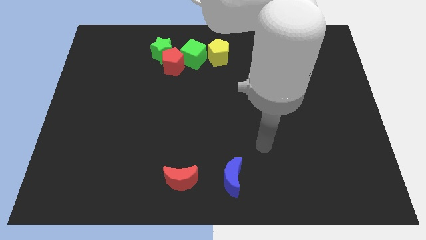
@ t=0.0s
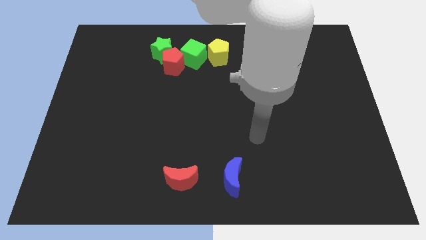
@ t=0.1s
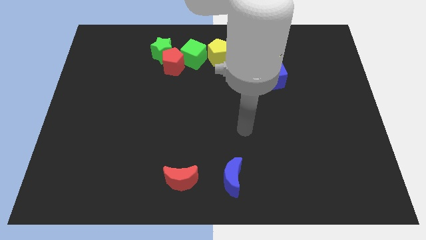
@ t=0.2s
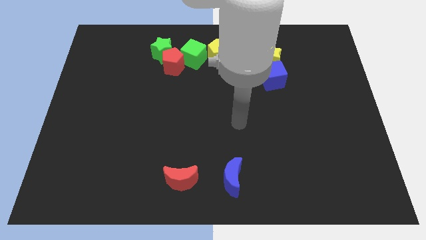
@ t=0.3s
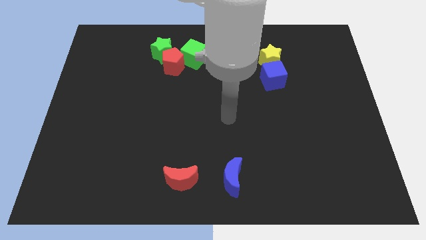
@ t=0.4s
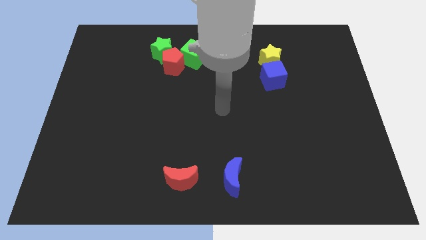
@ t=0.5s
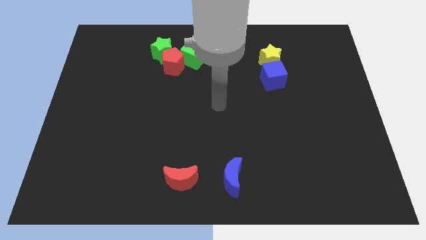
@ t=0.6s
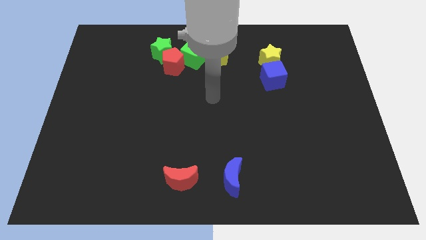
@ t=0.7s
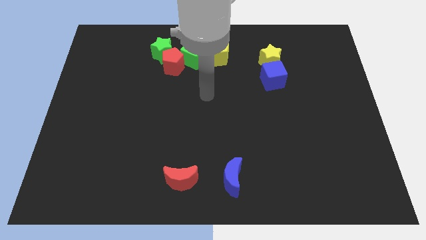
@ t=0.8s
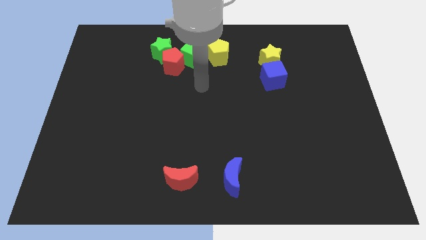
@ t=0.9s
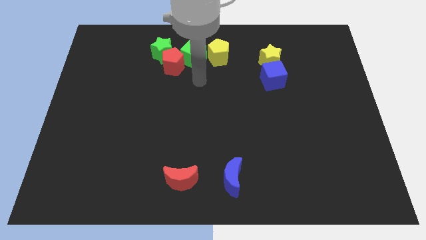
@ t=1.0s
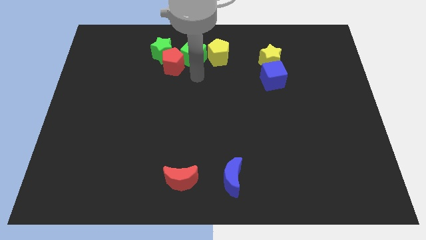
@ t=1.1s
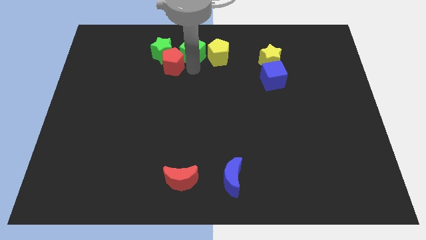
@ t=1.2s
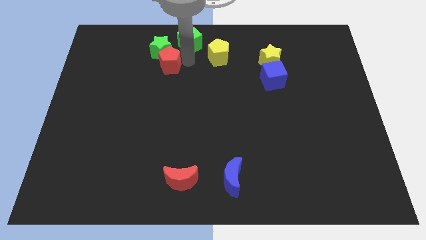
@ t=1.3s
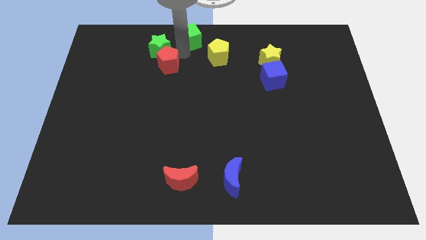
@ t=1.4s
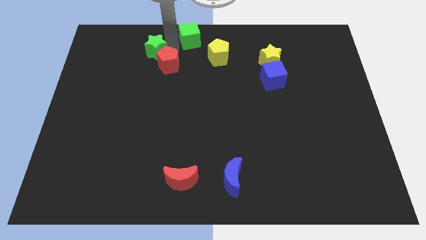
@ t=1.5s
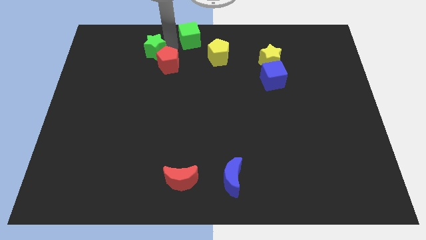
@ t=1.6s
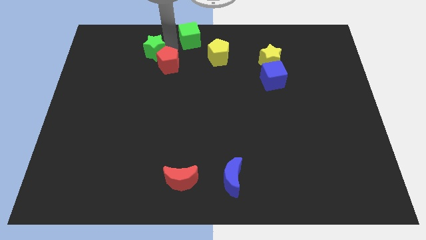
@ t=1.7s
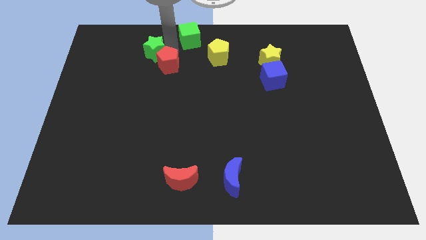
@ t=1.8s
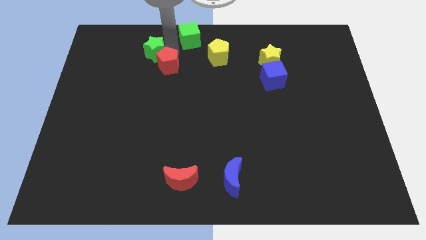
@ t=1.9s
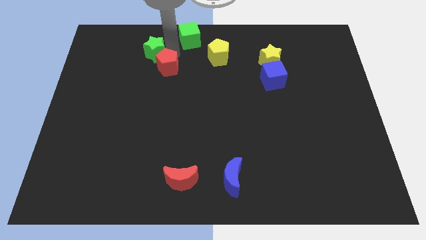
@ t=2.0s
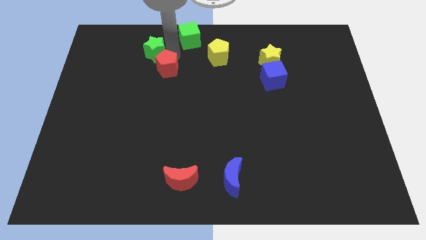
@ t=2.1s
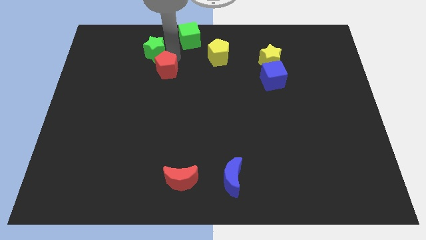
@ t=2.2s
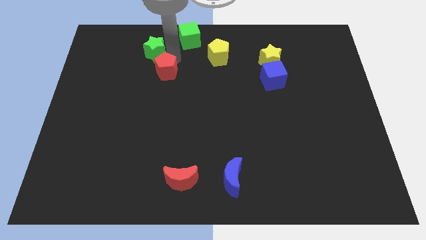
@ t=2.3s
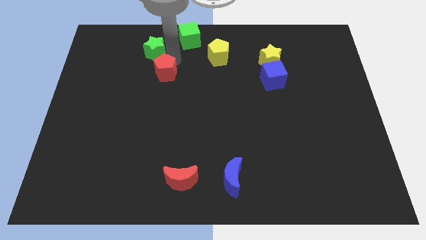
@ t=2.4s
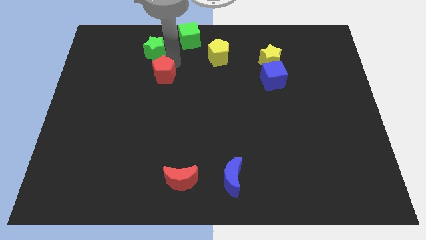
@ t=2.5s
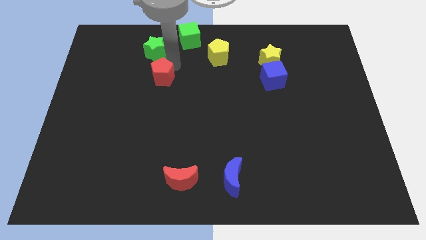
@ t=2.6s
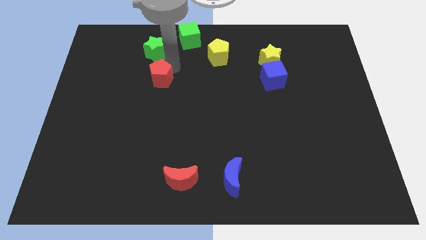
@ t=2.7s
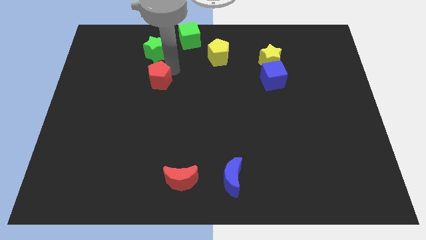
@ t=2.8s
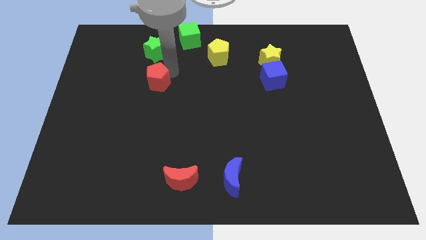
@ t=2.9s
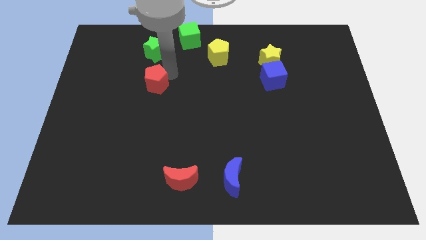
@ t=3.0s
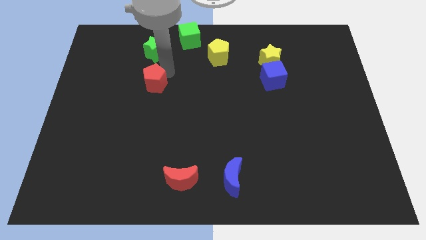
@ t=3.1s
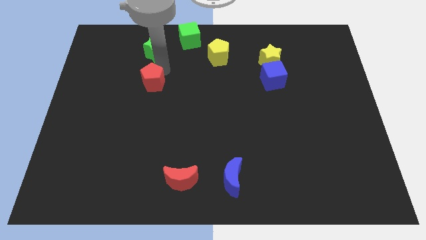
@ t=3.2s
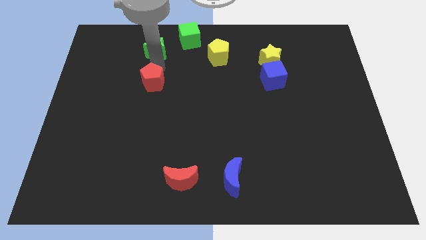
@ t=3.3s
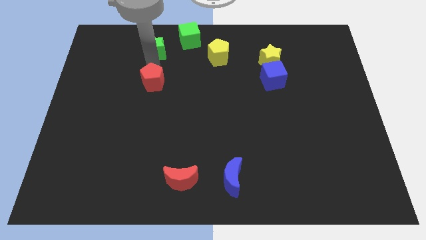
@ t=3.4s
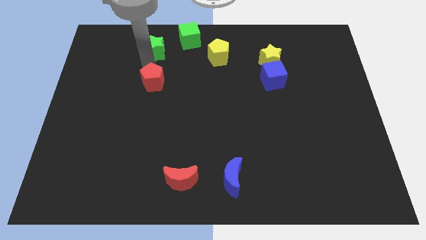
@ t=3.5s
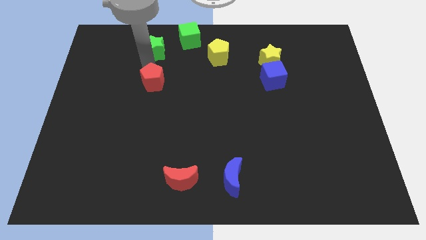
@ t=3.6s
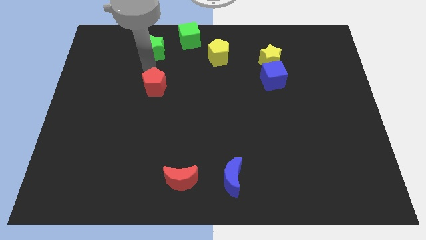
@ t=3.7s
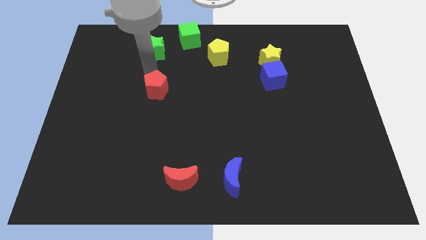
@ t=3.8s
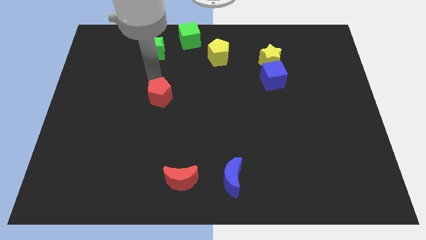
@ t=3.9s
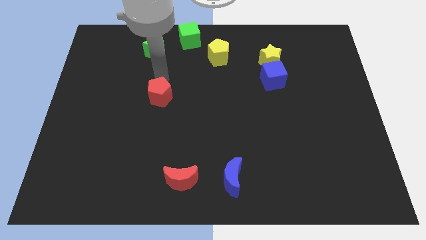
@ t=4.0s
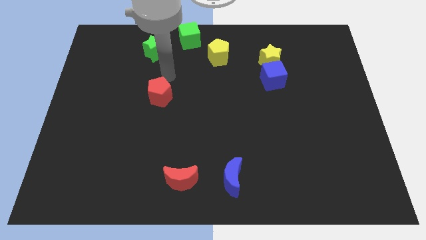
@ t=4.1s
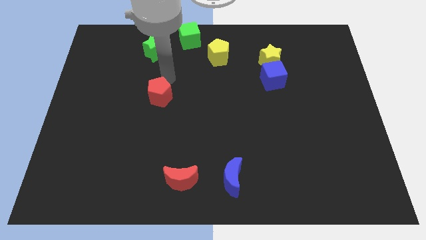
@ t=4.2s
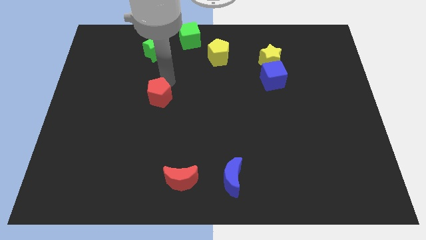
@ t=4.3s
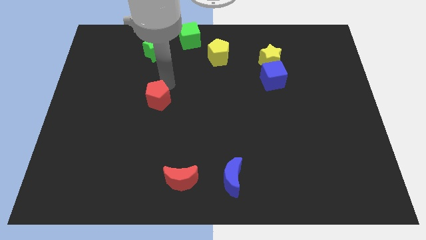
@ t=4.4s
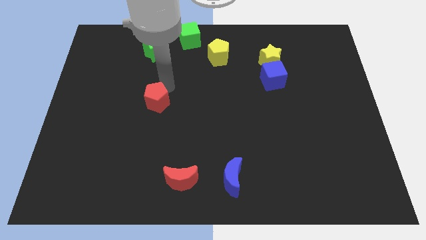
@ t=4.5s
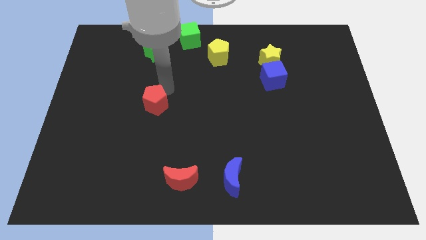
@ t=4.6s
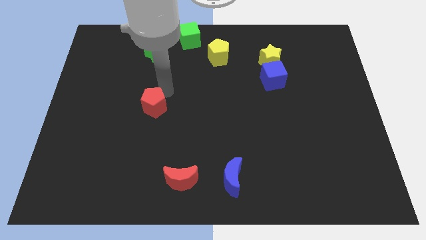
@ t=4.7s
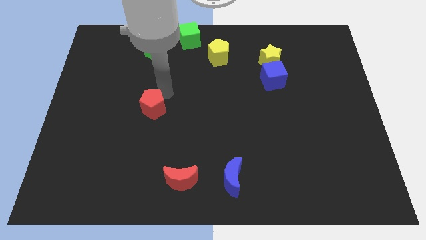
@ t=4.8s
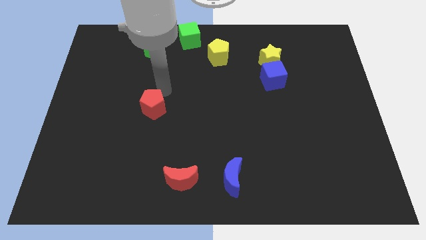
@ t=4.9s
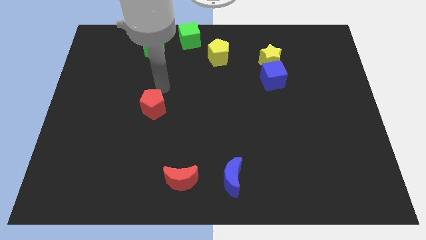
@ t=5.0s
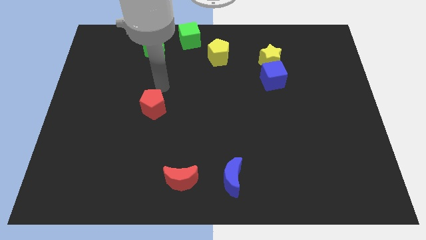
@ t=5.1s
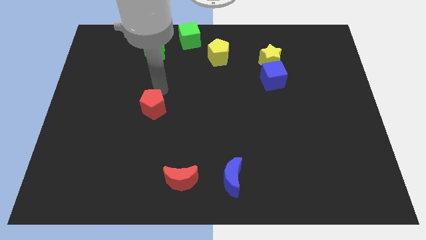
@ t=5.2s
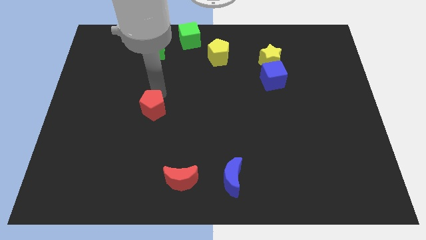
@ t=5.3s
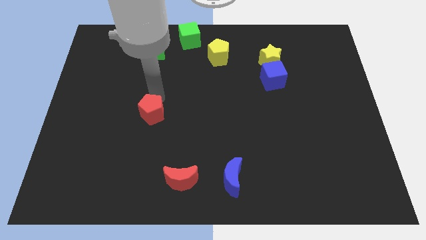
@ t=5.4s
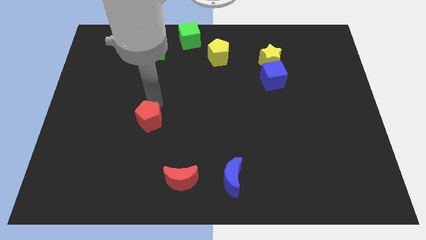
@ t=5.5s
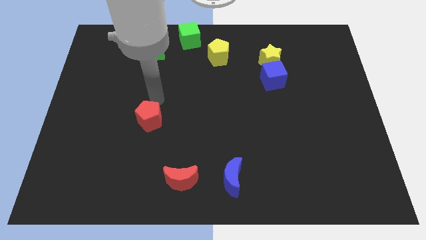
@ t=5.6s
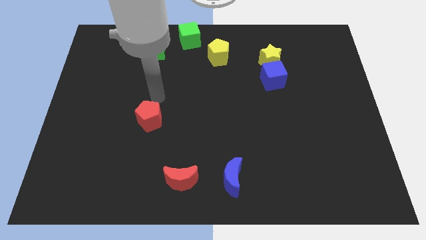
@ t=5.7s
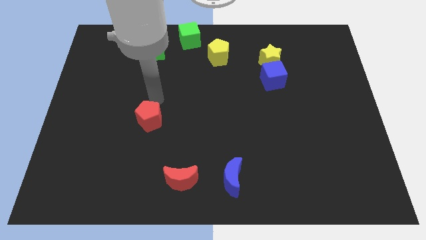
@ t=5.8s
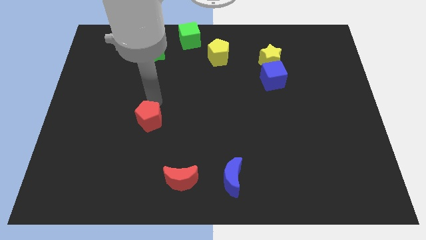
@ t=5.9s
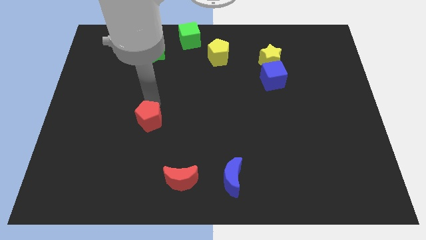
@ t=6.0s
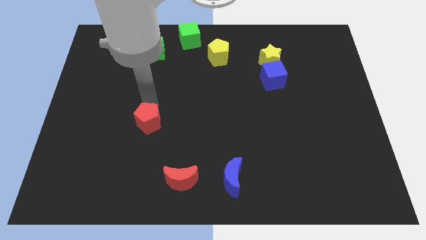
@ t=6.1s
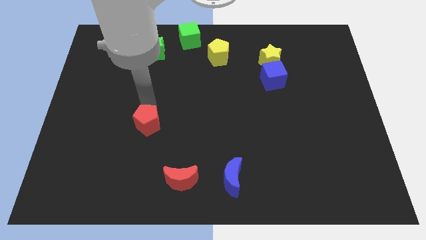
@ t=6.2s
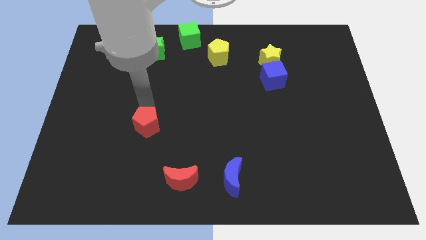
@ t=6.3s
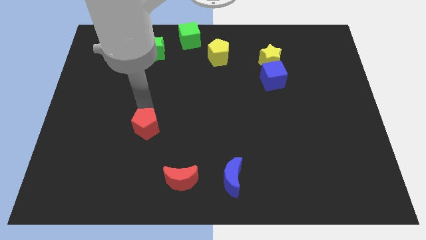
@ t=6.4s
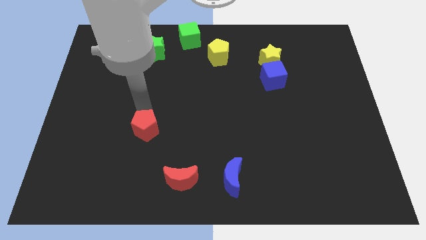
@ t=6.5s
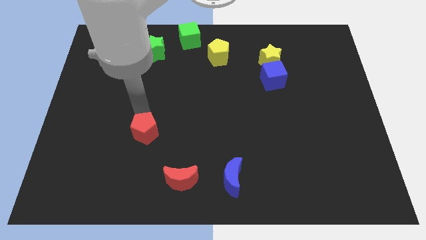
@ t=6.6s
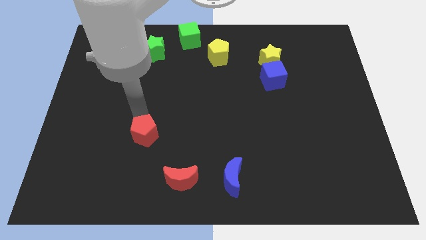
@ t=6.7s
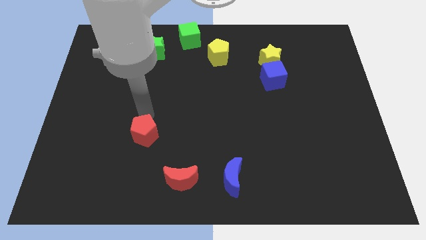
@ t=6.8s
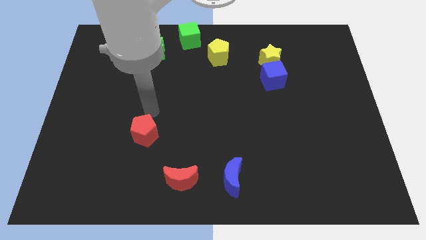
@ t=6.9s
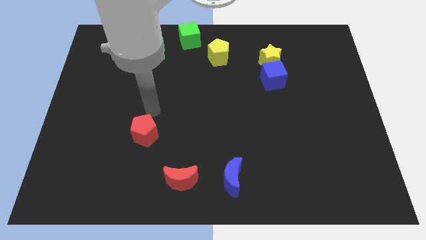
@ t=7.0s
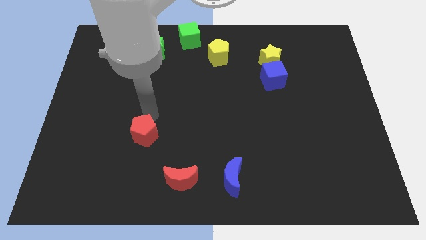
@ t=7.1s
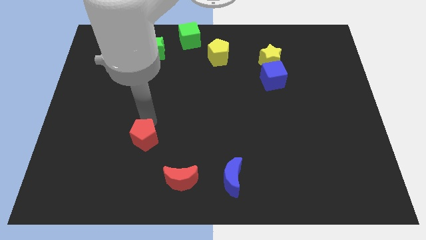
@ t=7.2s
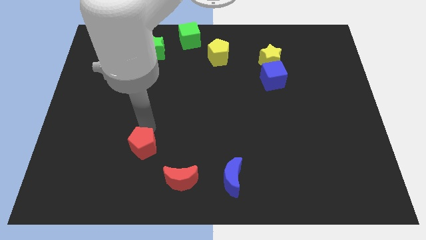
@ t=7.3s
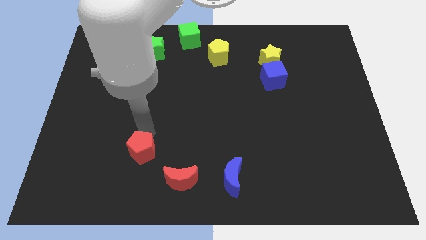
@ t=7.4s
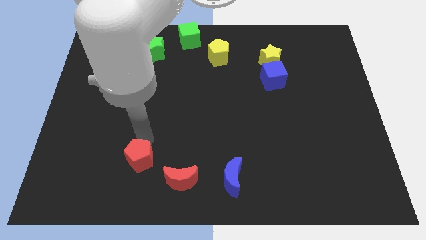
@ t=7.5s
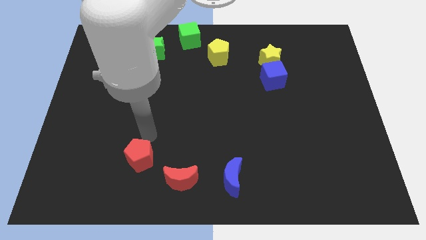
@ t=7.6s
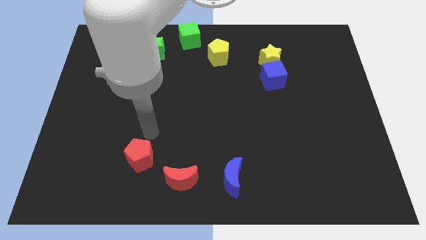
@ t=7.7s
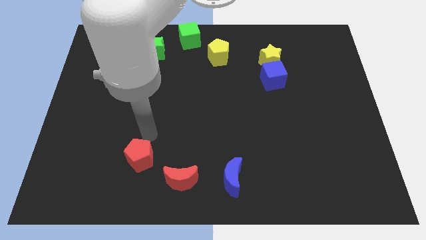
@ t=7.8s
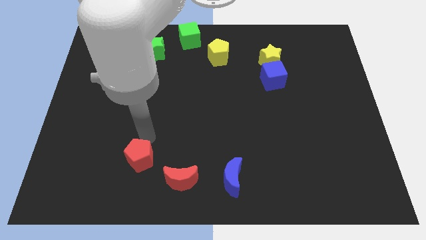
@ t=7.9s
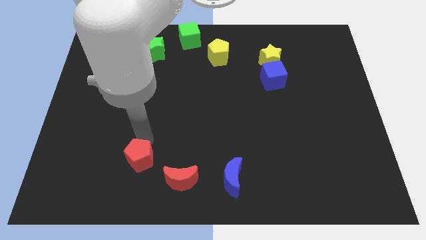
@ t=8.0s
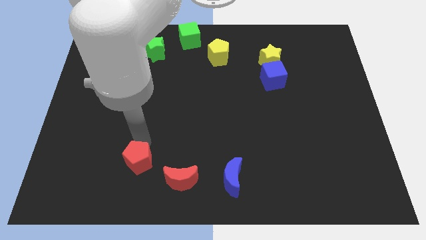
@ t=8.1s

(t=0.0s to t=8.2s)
put the red pentagon to the left of the red moon
